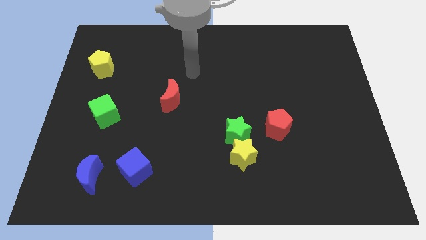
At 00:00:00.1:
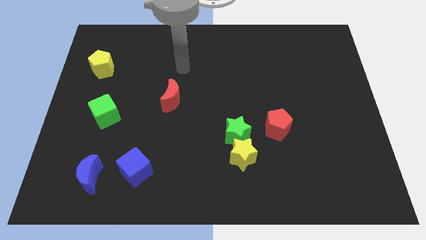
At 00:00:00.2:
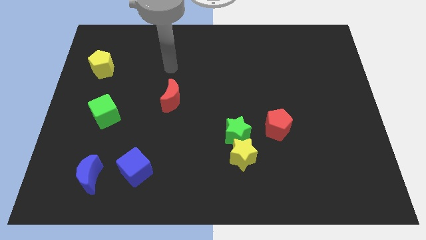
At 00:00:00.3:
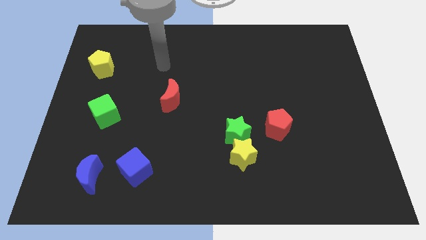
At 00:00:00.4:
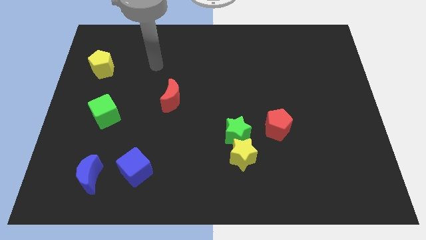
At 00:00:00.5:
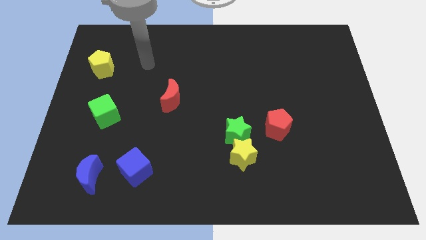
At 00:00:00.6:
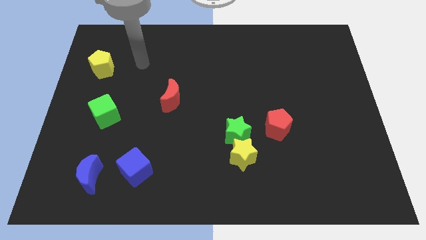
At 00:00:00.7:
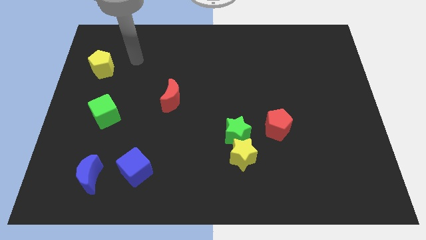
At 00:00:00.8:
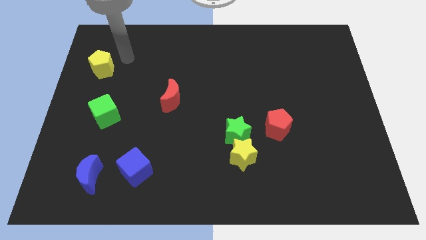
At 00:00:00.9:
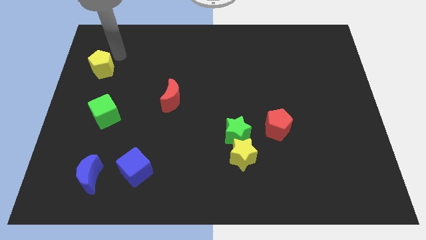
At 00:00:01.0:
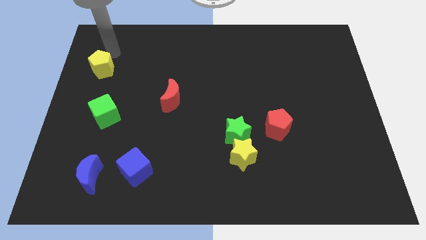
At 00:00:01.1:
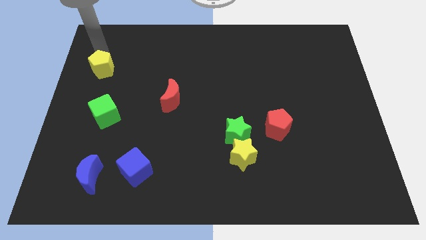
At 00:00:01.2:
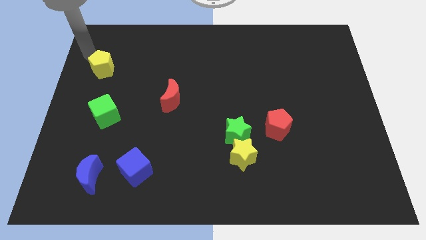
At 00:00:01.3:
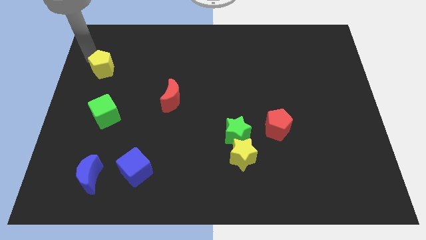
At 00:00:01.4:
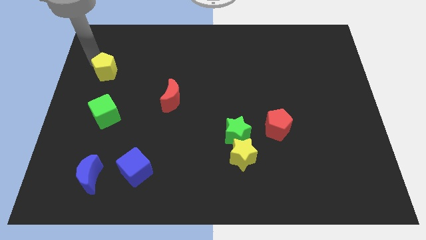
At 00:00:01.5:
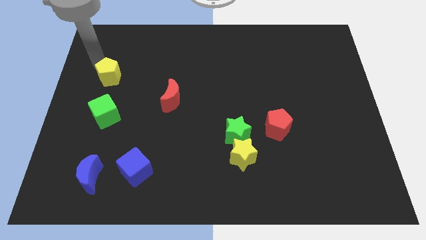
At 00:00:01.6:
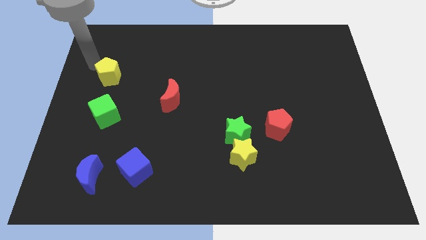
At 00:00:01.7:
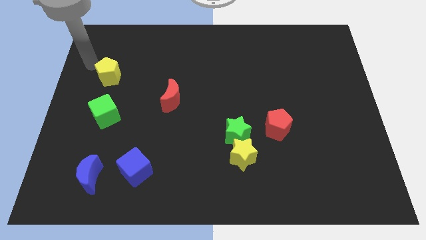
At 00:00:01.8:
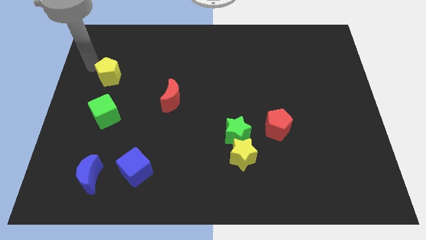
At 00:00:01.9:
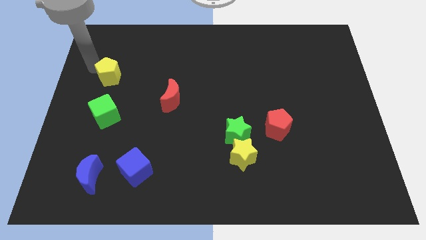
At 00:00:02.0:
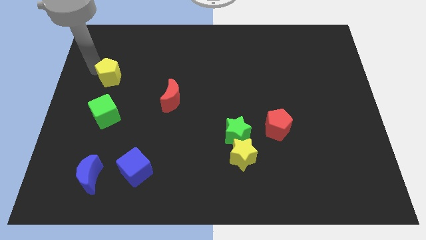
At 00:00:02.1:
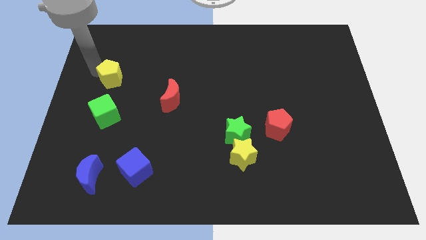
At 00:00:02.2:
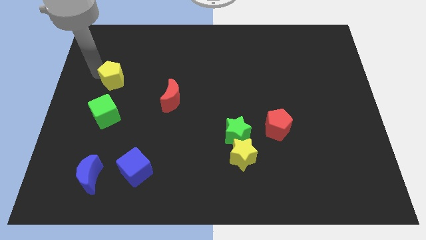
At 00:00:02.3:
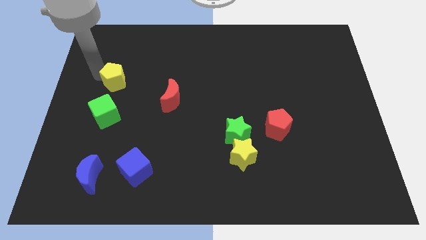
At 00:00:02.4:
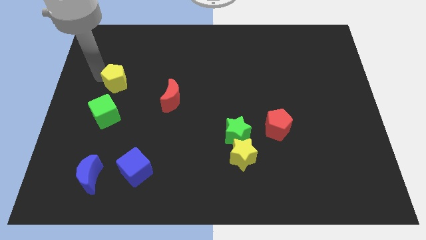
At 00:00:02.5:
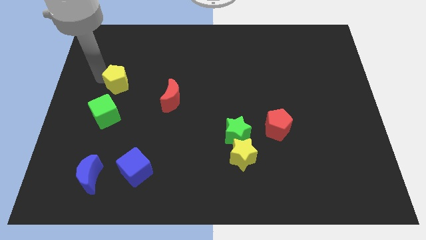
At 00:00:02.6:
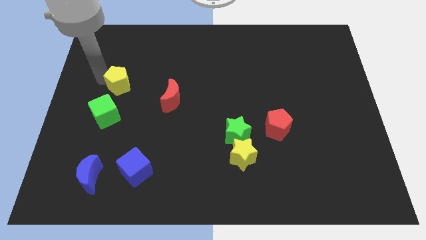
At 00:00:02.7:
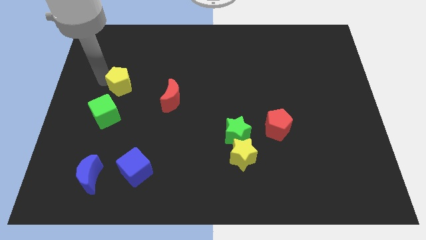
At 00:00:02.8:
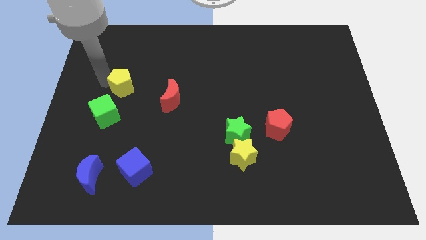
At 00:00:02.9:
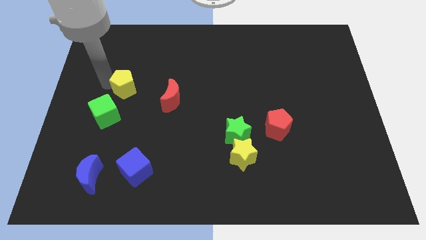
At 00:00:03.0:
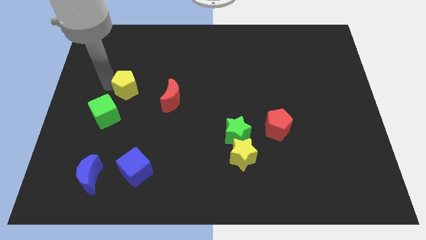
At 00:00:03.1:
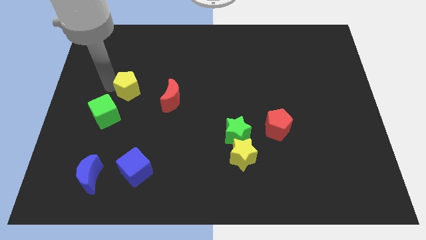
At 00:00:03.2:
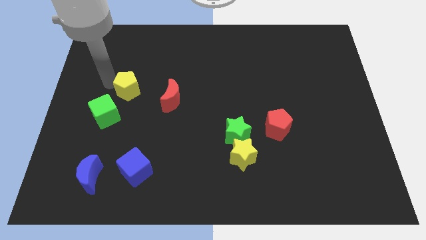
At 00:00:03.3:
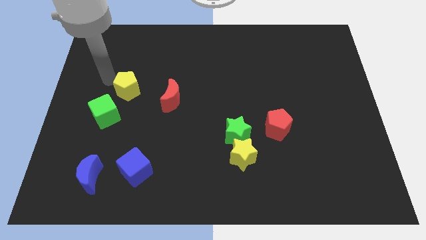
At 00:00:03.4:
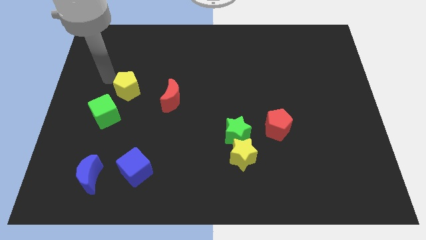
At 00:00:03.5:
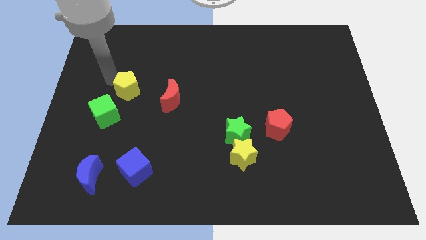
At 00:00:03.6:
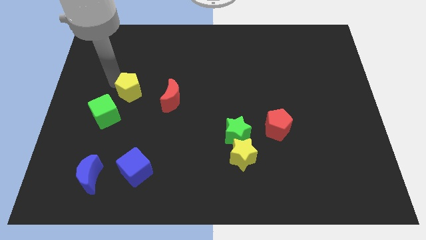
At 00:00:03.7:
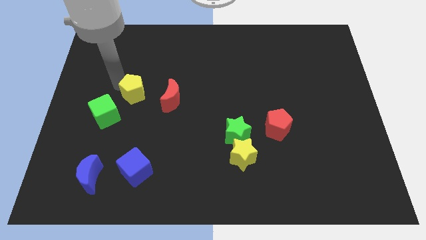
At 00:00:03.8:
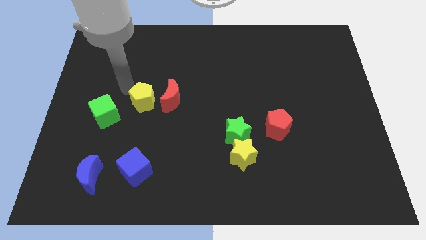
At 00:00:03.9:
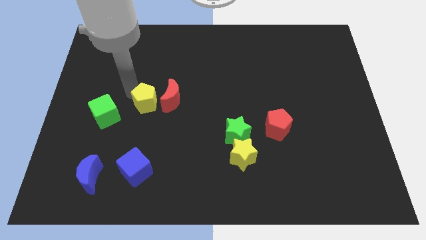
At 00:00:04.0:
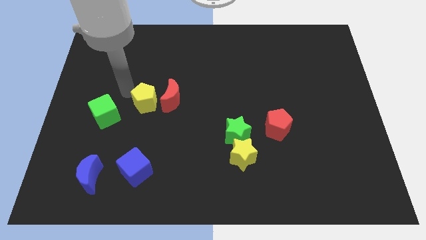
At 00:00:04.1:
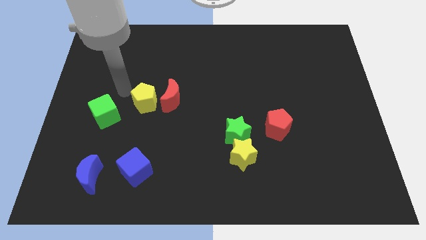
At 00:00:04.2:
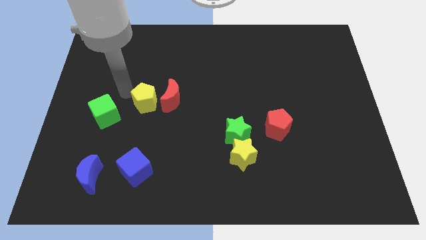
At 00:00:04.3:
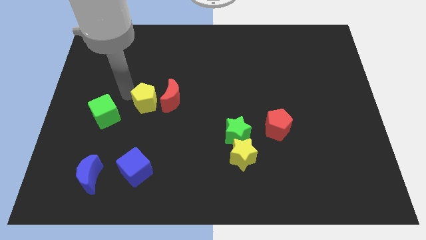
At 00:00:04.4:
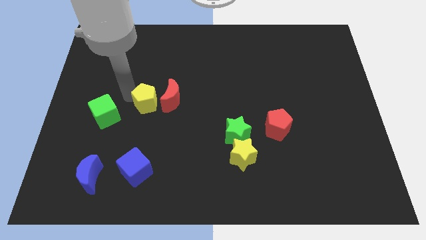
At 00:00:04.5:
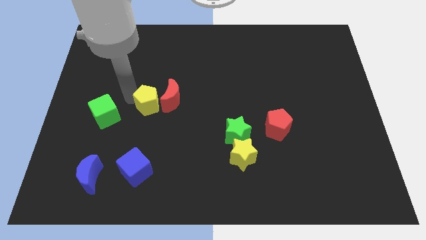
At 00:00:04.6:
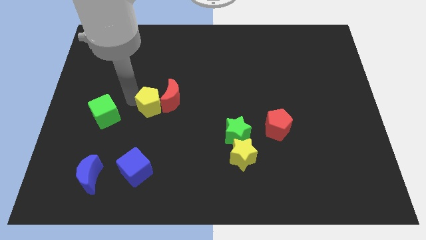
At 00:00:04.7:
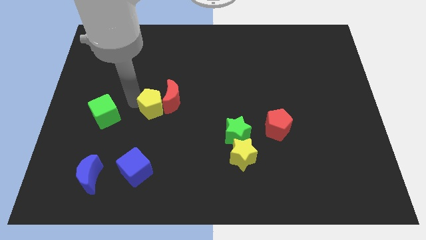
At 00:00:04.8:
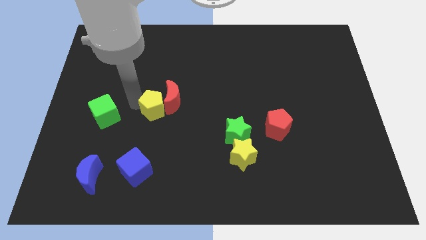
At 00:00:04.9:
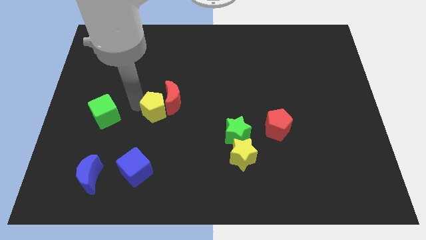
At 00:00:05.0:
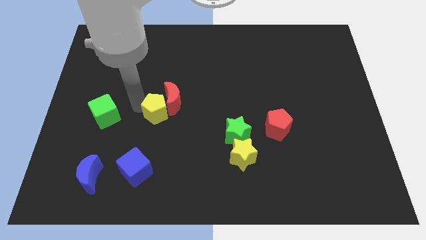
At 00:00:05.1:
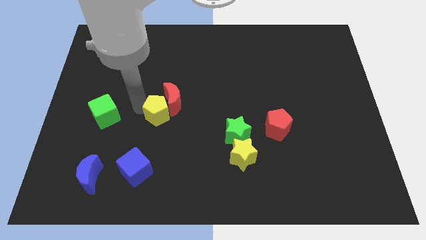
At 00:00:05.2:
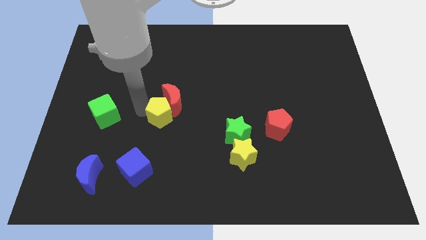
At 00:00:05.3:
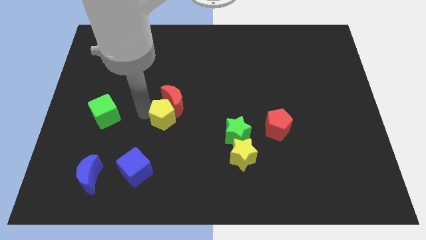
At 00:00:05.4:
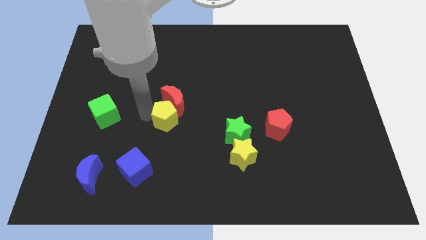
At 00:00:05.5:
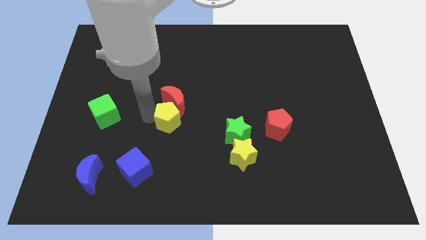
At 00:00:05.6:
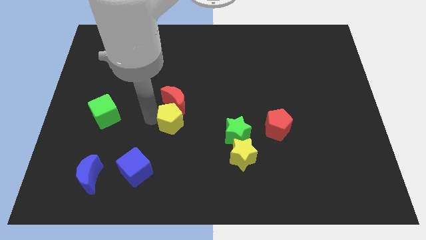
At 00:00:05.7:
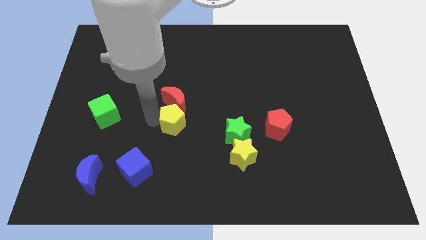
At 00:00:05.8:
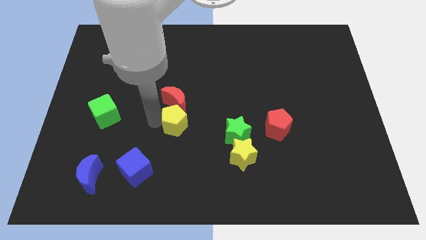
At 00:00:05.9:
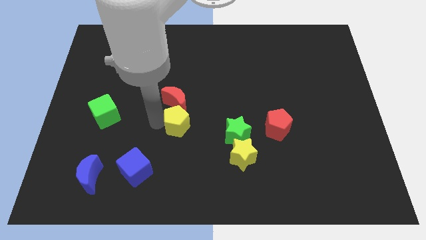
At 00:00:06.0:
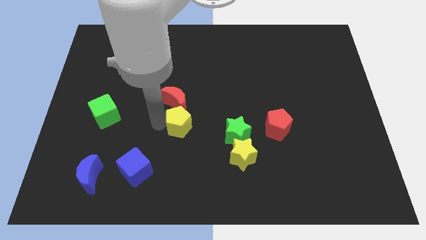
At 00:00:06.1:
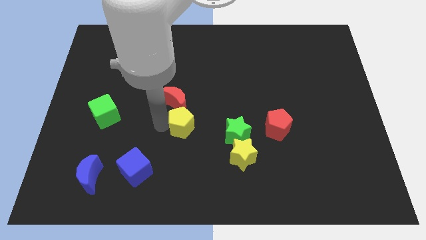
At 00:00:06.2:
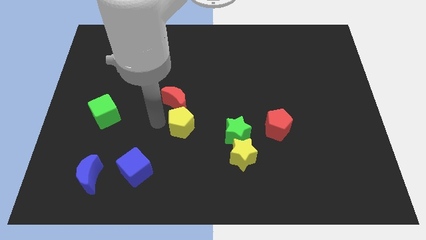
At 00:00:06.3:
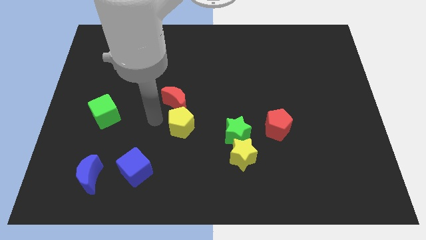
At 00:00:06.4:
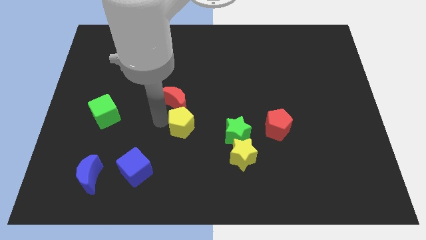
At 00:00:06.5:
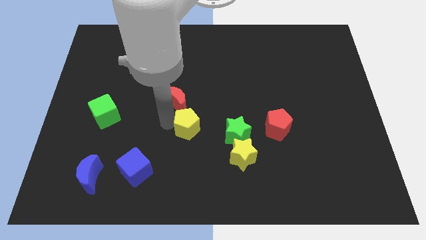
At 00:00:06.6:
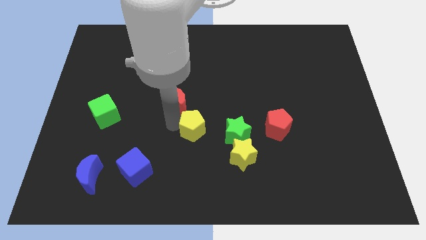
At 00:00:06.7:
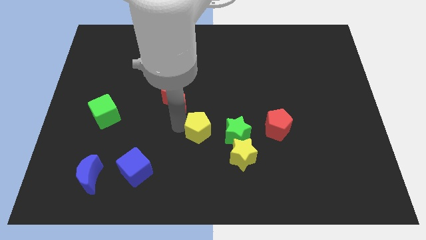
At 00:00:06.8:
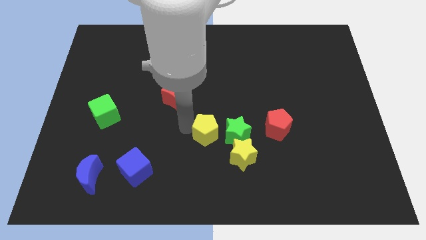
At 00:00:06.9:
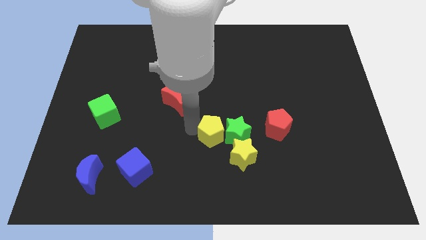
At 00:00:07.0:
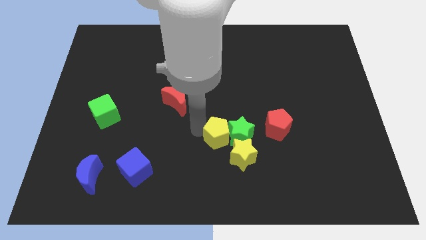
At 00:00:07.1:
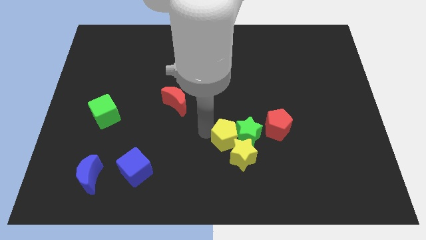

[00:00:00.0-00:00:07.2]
put the yellow pentagon close to the yellow star

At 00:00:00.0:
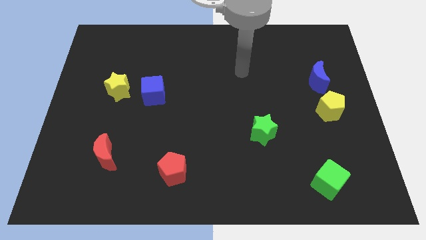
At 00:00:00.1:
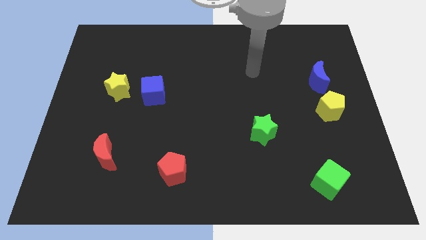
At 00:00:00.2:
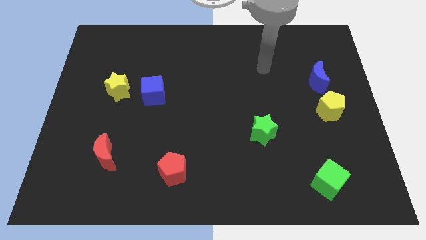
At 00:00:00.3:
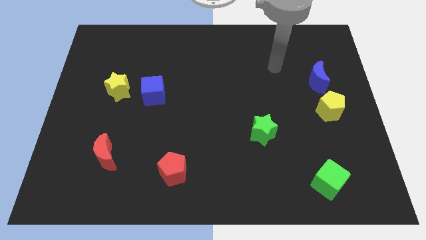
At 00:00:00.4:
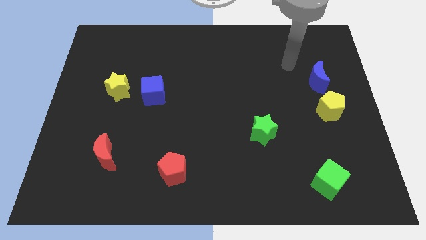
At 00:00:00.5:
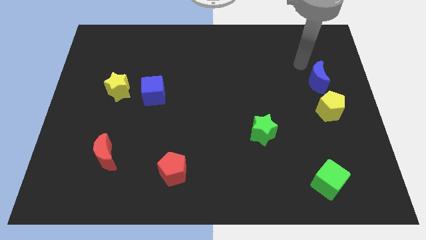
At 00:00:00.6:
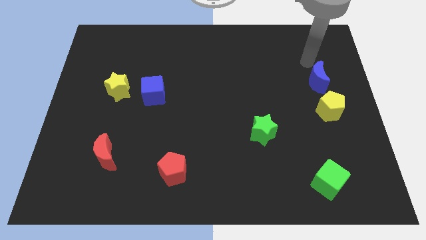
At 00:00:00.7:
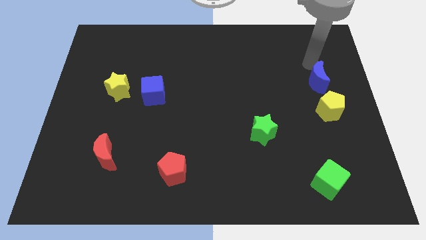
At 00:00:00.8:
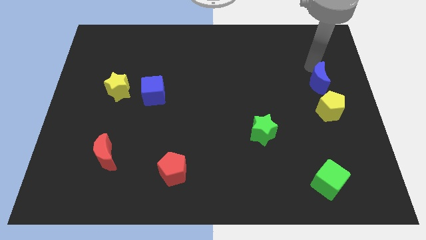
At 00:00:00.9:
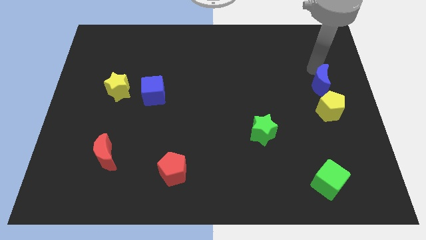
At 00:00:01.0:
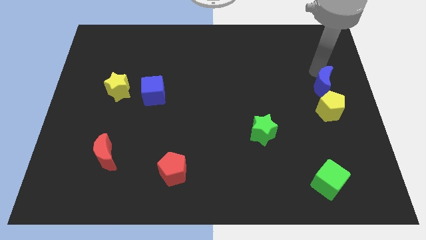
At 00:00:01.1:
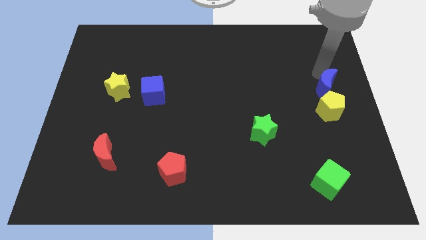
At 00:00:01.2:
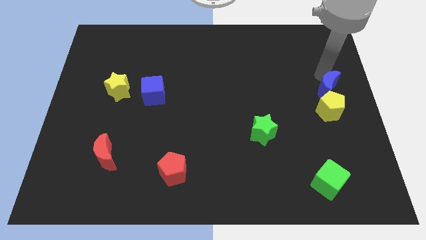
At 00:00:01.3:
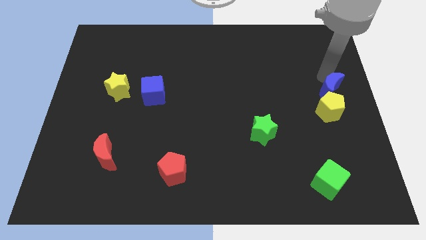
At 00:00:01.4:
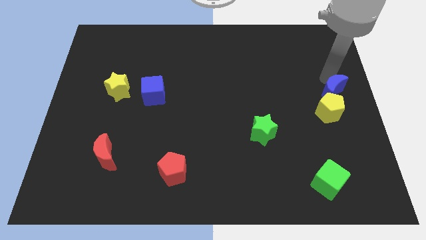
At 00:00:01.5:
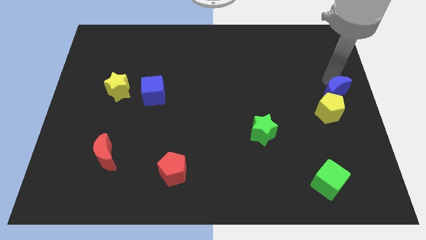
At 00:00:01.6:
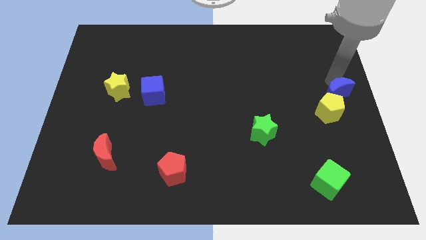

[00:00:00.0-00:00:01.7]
push the blue moon close to the yellow pentagon
